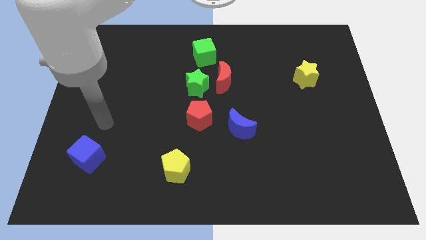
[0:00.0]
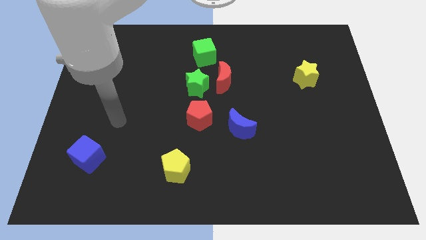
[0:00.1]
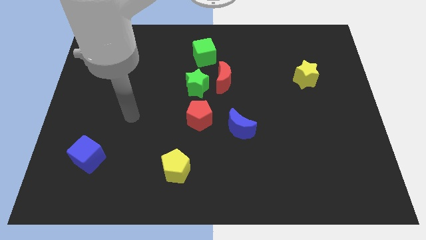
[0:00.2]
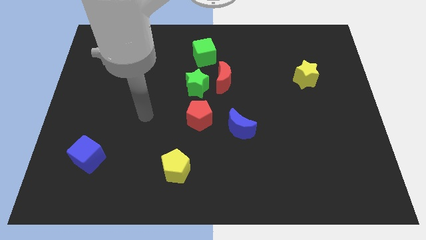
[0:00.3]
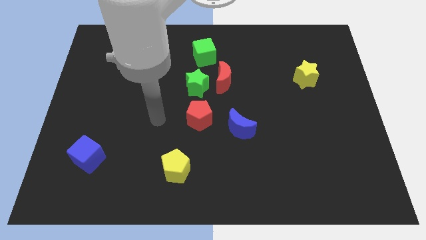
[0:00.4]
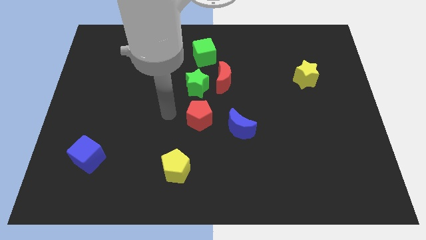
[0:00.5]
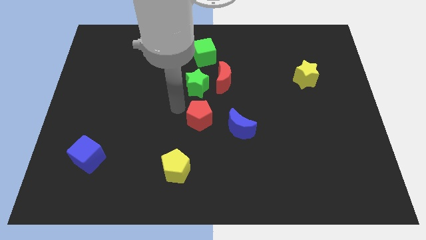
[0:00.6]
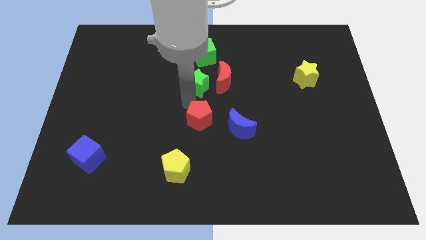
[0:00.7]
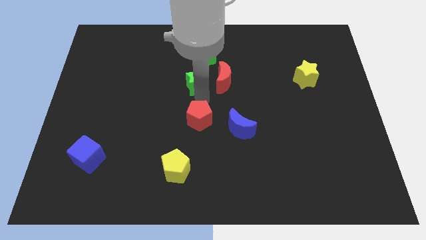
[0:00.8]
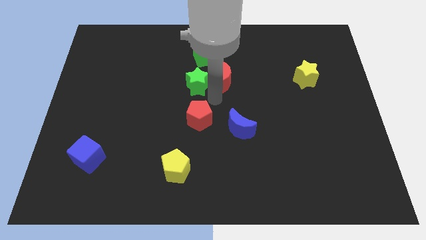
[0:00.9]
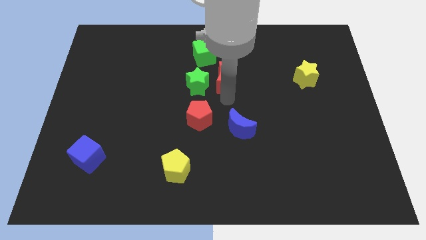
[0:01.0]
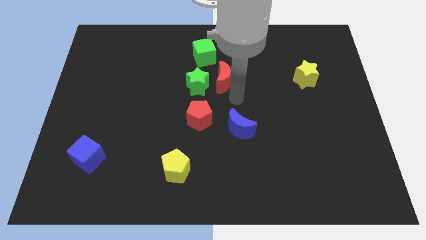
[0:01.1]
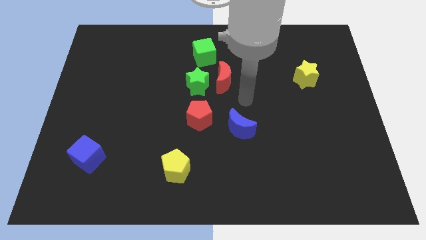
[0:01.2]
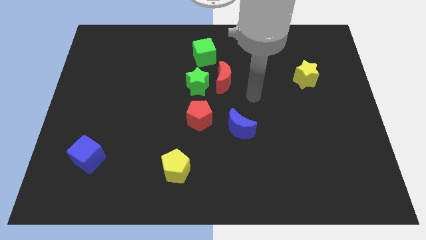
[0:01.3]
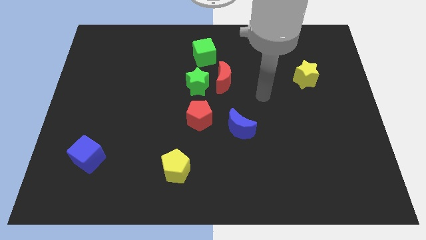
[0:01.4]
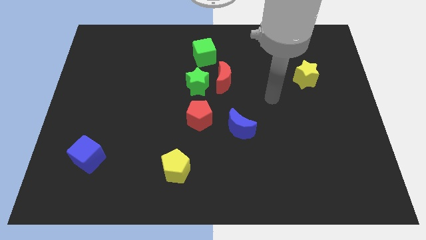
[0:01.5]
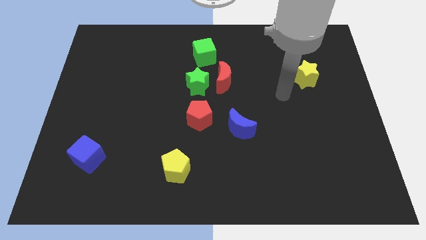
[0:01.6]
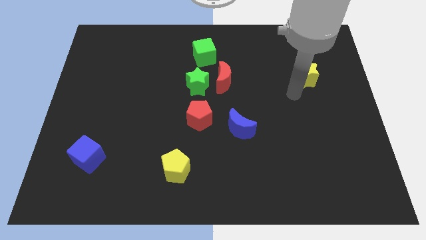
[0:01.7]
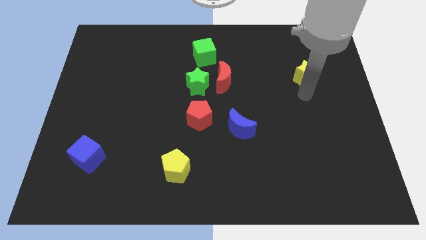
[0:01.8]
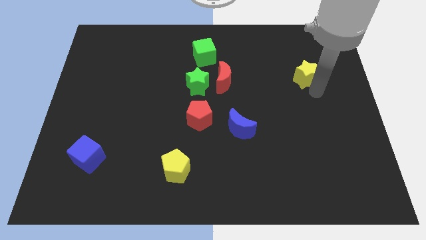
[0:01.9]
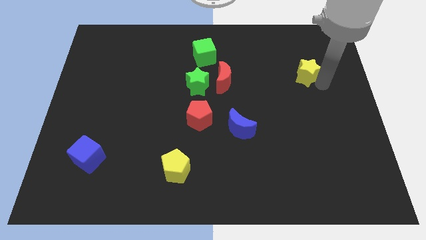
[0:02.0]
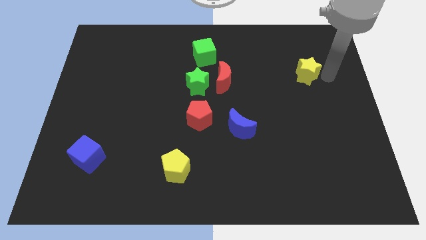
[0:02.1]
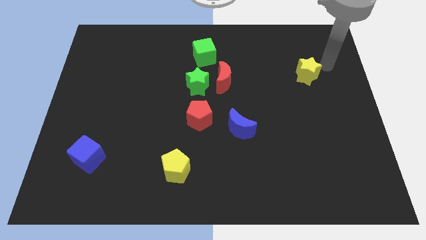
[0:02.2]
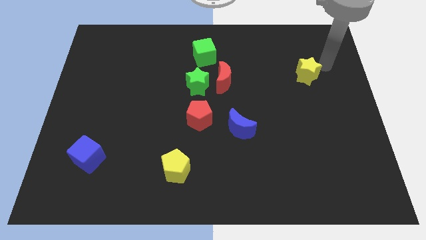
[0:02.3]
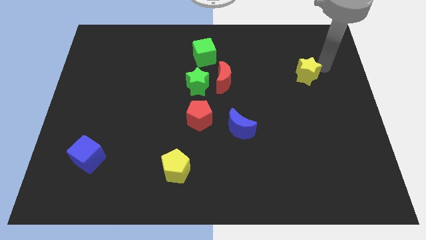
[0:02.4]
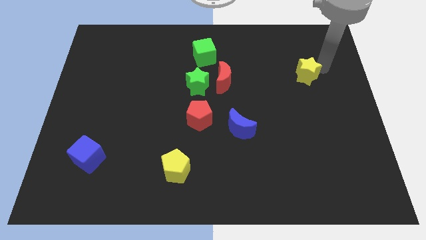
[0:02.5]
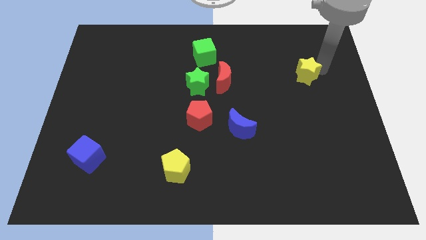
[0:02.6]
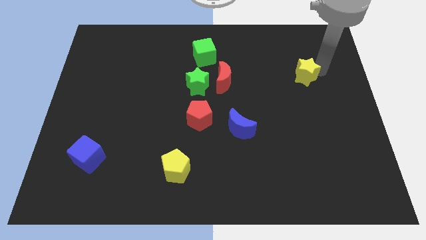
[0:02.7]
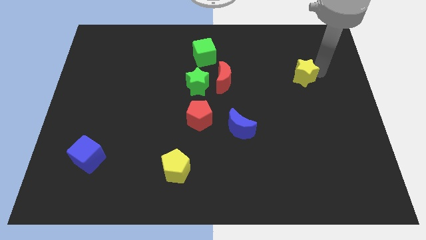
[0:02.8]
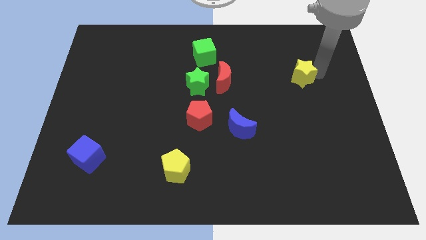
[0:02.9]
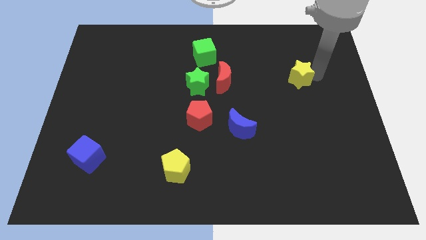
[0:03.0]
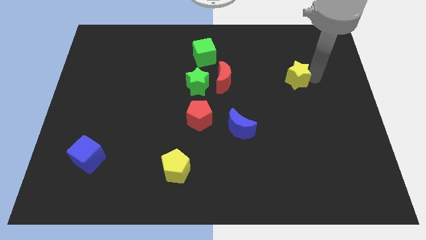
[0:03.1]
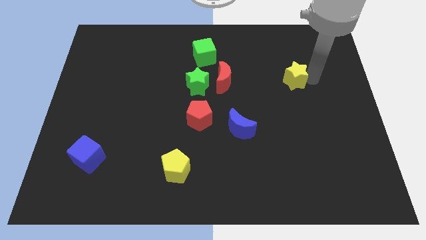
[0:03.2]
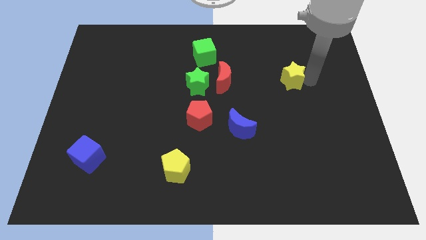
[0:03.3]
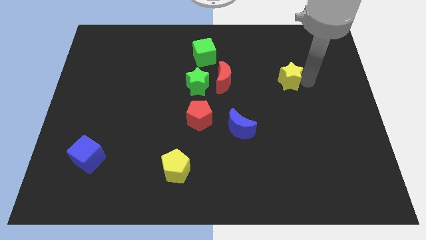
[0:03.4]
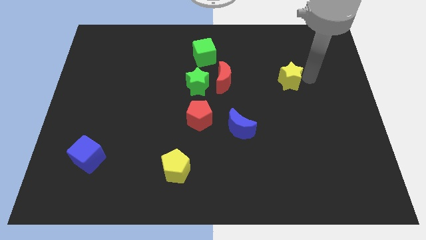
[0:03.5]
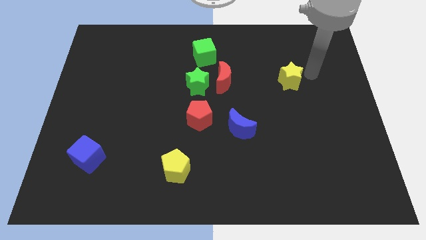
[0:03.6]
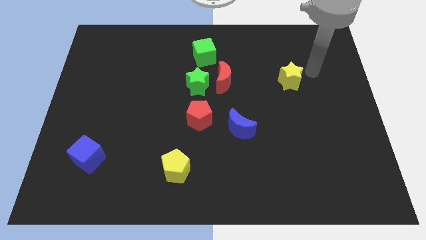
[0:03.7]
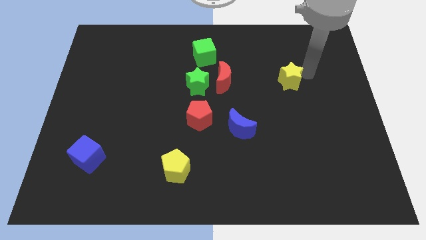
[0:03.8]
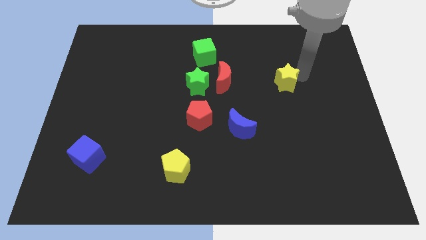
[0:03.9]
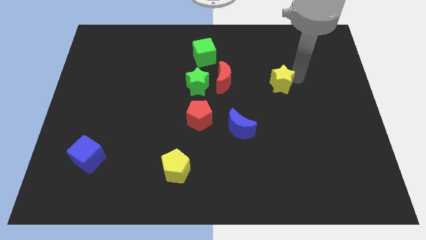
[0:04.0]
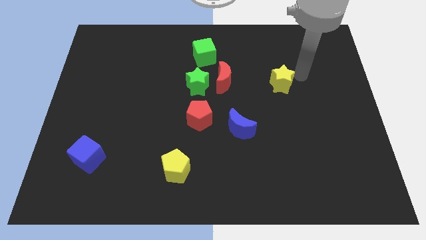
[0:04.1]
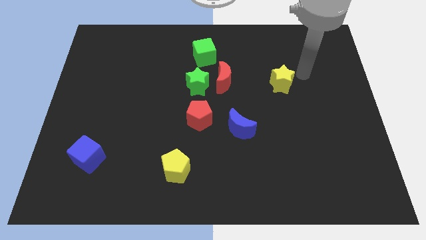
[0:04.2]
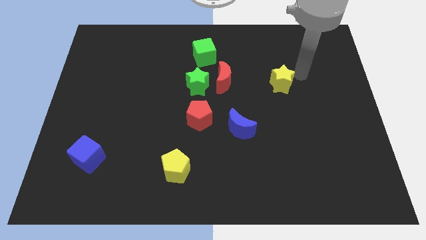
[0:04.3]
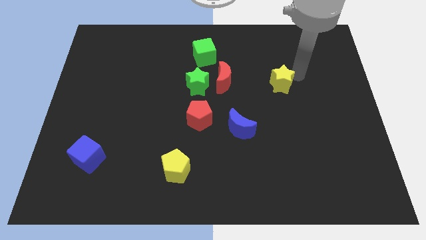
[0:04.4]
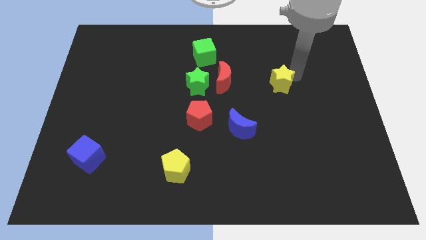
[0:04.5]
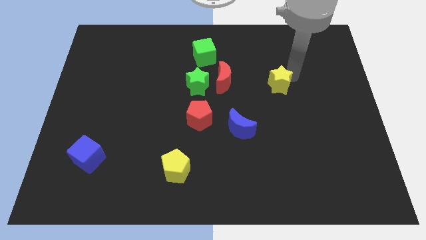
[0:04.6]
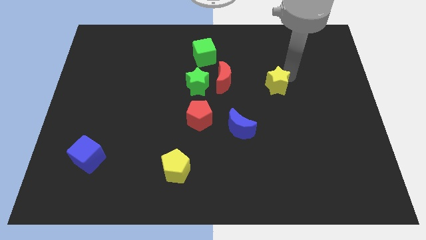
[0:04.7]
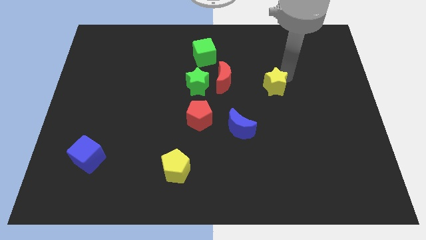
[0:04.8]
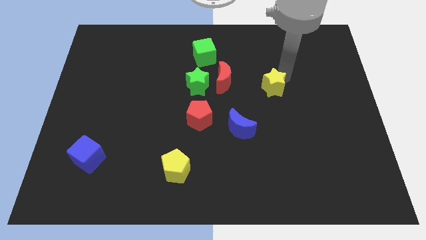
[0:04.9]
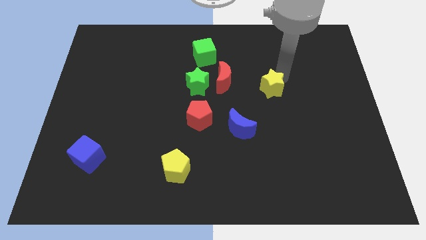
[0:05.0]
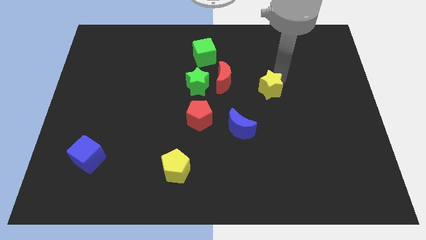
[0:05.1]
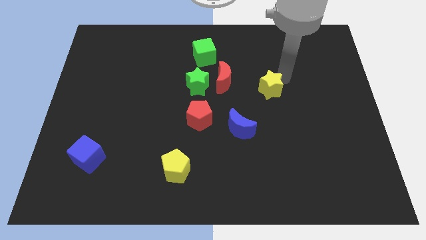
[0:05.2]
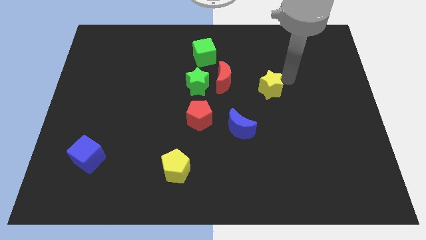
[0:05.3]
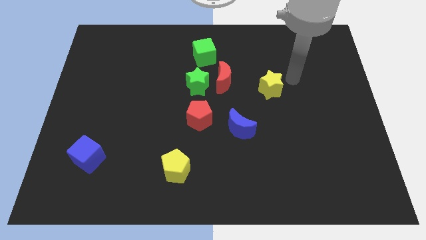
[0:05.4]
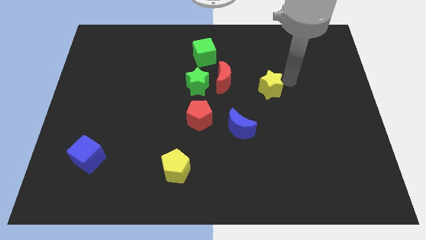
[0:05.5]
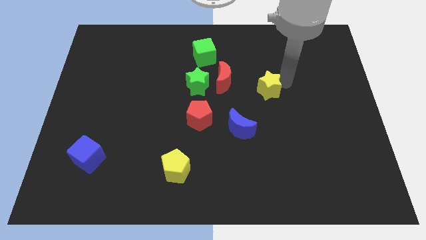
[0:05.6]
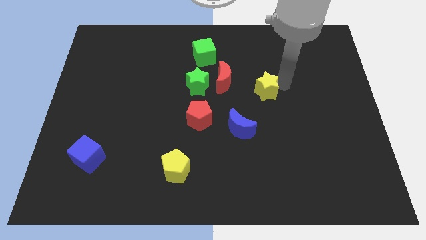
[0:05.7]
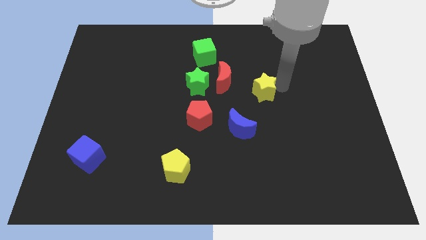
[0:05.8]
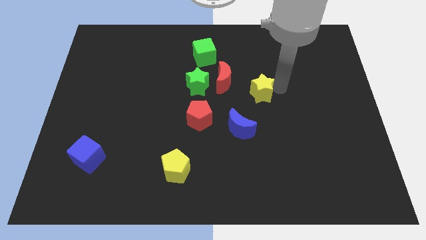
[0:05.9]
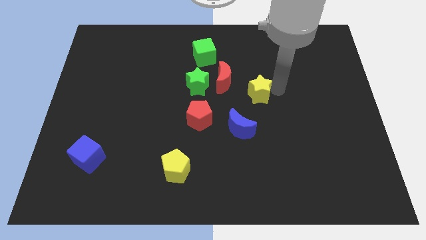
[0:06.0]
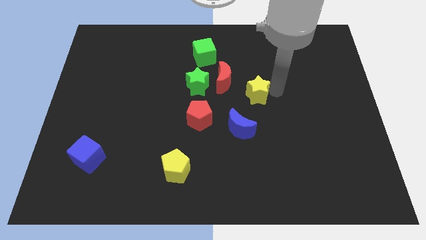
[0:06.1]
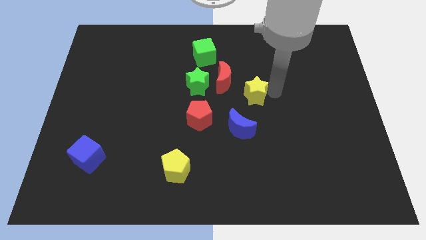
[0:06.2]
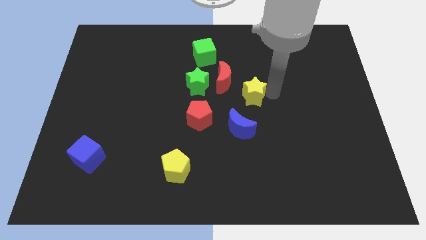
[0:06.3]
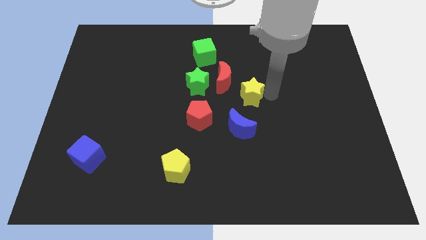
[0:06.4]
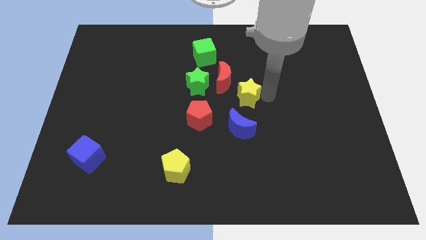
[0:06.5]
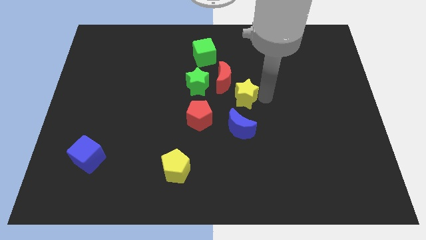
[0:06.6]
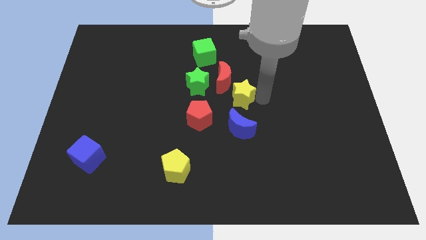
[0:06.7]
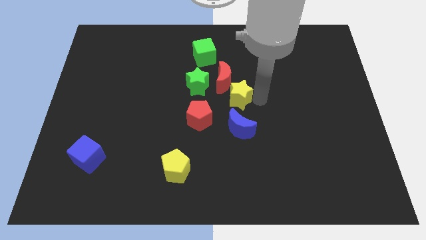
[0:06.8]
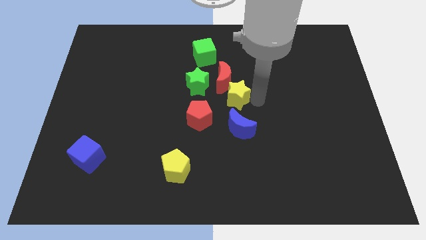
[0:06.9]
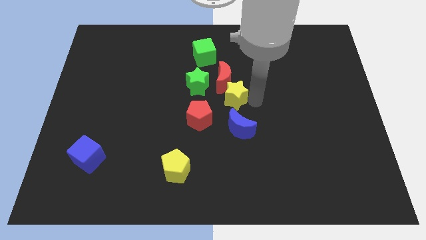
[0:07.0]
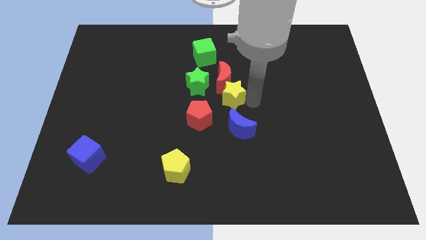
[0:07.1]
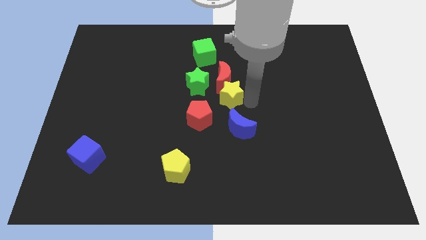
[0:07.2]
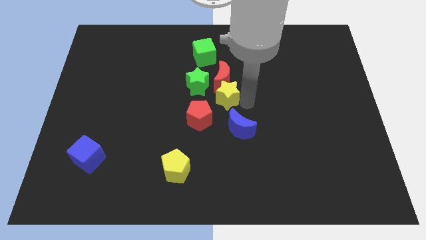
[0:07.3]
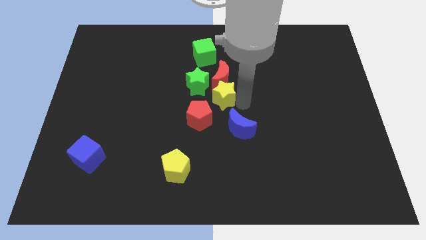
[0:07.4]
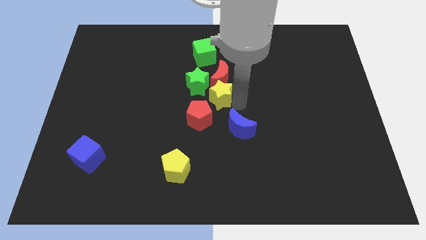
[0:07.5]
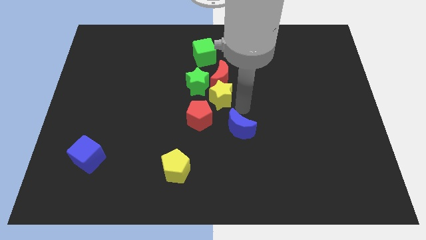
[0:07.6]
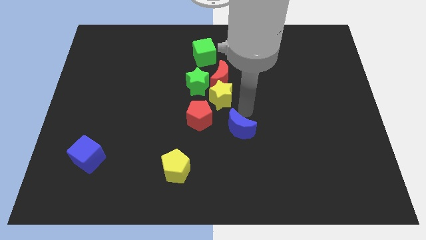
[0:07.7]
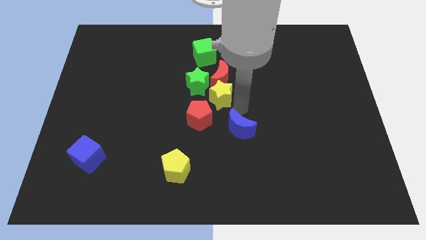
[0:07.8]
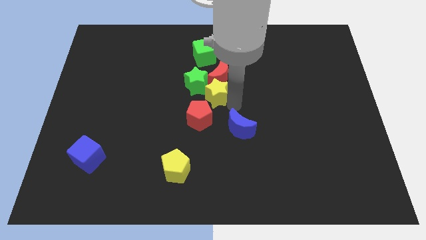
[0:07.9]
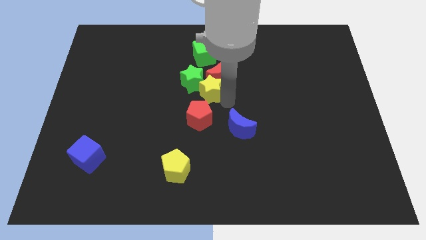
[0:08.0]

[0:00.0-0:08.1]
move the yellow star next to the green star
